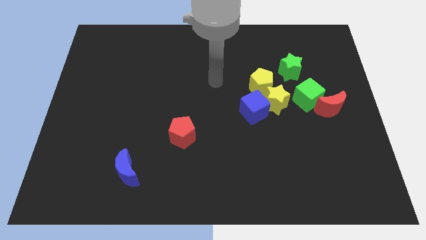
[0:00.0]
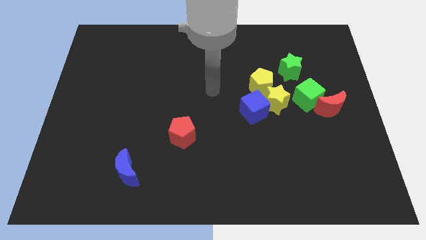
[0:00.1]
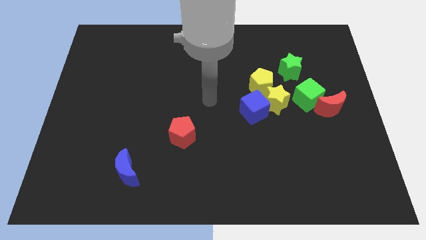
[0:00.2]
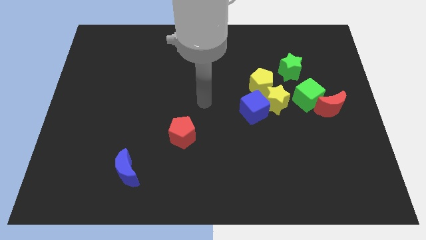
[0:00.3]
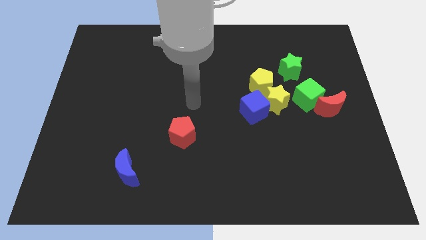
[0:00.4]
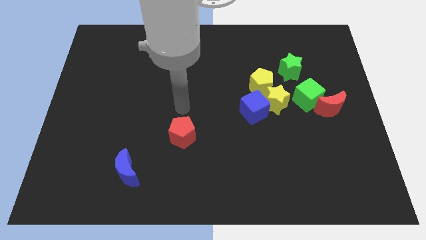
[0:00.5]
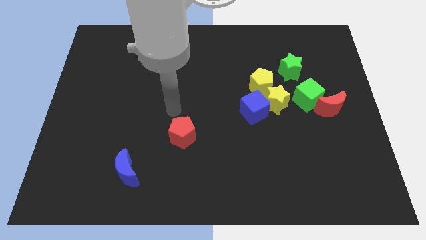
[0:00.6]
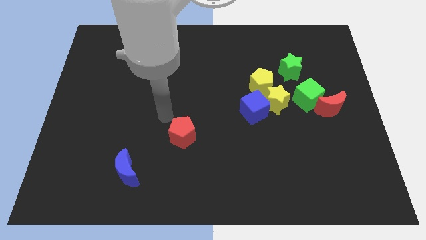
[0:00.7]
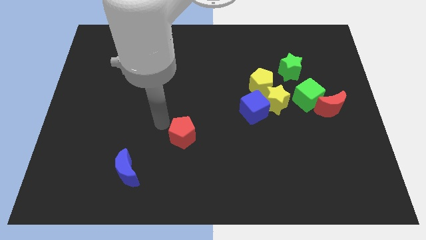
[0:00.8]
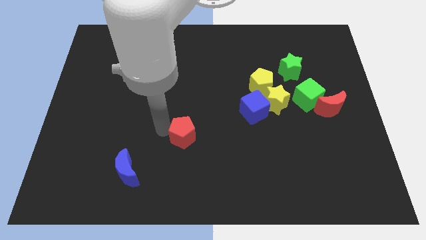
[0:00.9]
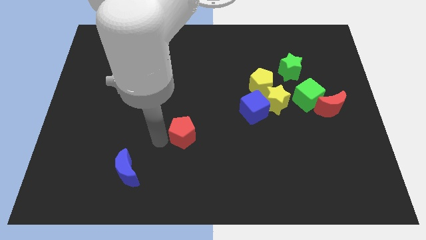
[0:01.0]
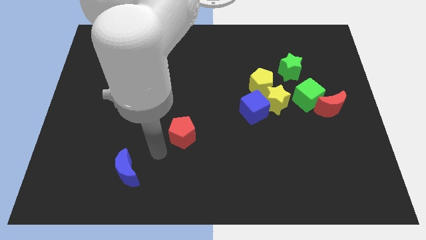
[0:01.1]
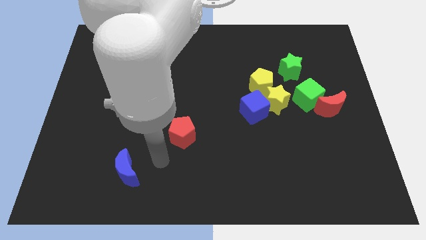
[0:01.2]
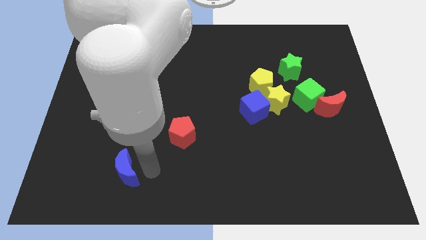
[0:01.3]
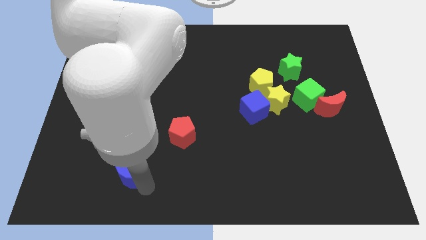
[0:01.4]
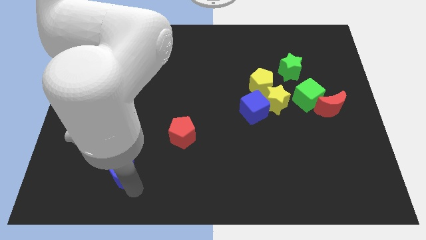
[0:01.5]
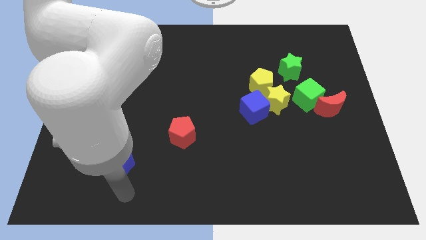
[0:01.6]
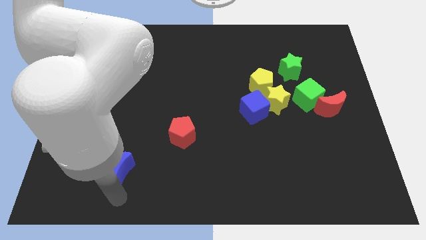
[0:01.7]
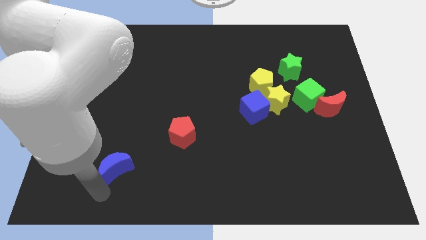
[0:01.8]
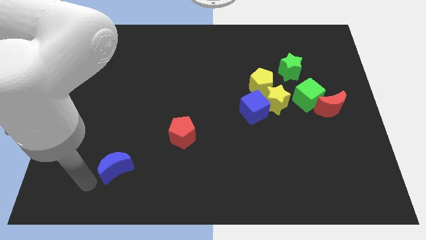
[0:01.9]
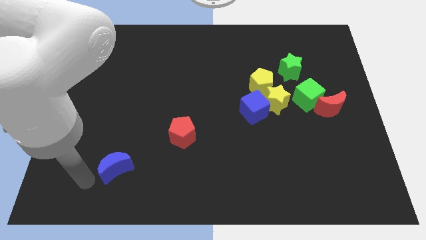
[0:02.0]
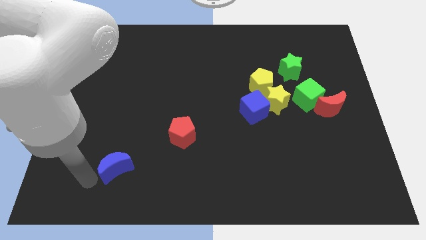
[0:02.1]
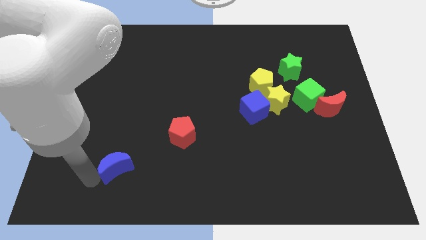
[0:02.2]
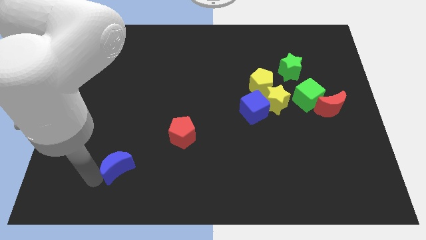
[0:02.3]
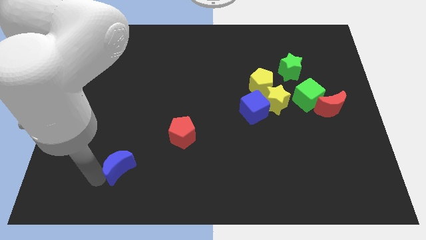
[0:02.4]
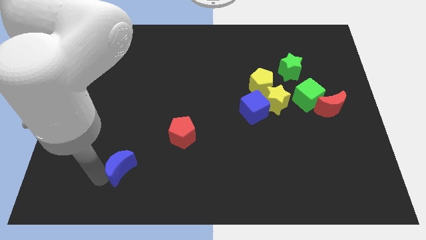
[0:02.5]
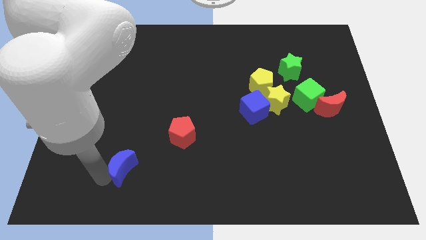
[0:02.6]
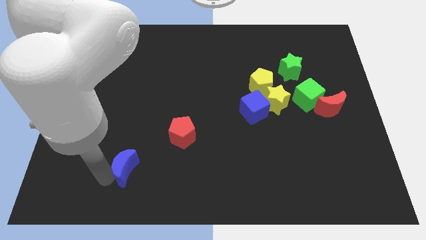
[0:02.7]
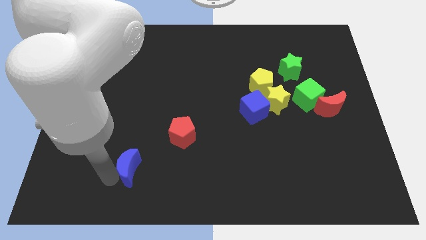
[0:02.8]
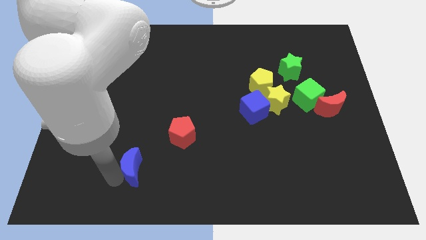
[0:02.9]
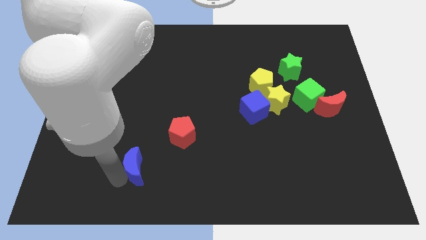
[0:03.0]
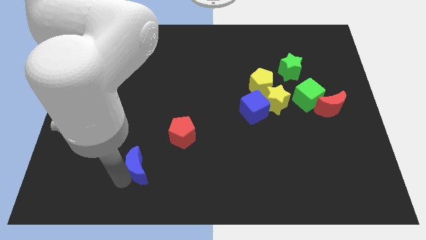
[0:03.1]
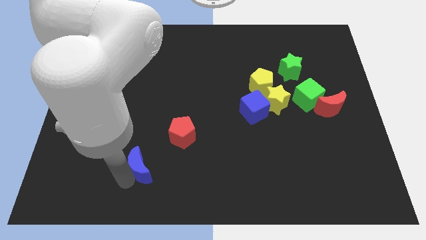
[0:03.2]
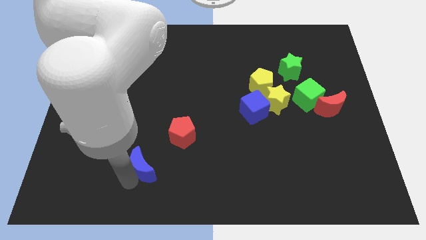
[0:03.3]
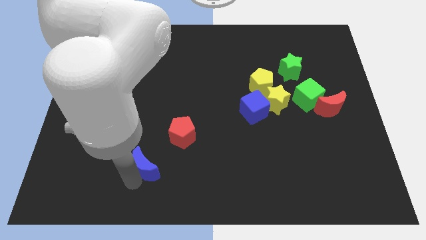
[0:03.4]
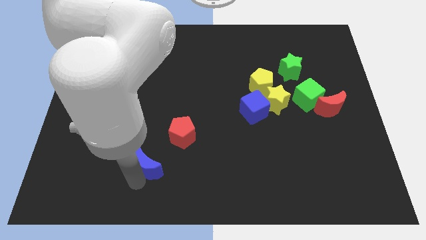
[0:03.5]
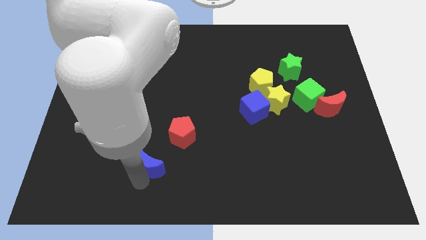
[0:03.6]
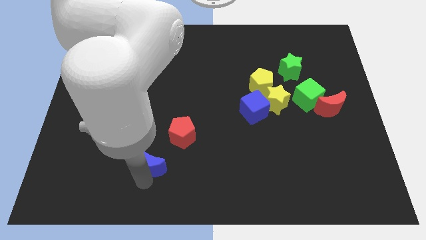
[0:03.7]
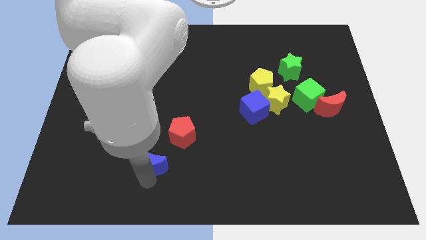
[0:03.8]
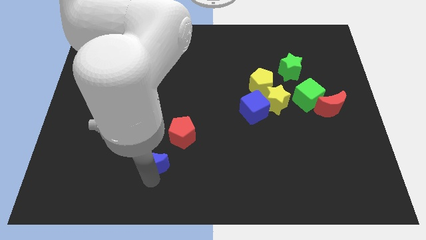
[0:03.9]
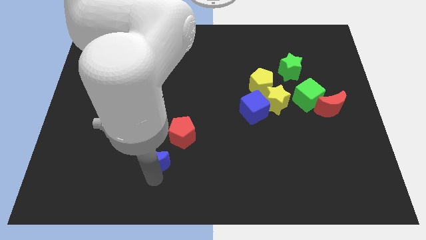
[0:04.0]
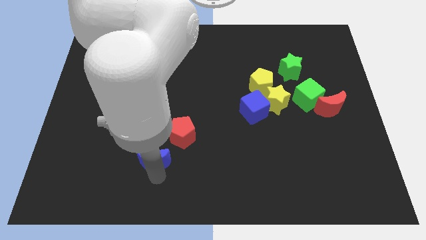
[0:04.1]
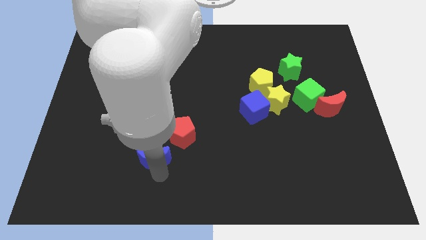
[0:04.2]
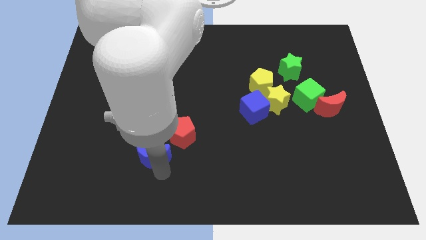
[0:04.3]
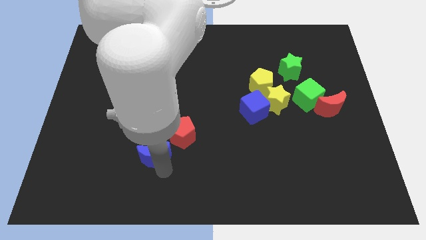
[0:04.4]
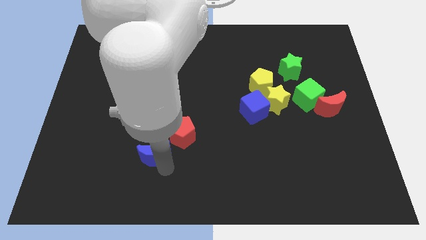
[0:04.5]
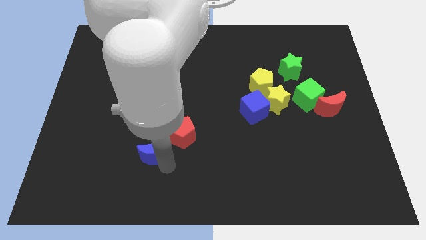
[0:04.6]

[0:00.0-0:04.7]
slightly slide the blue moon upwards and right diagonally

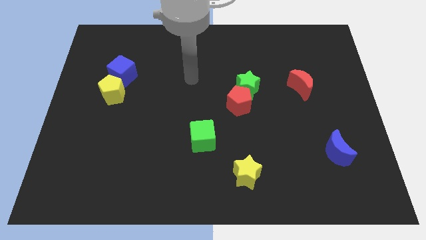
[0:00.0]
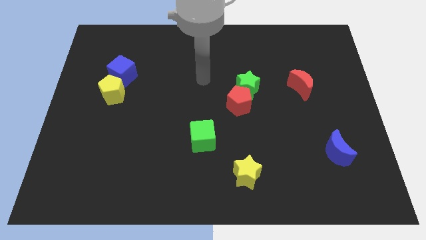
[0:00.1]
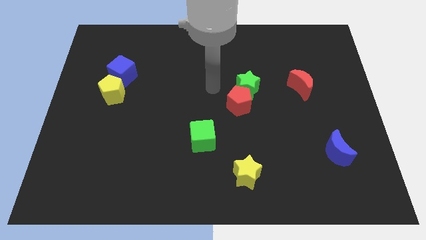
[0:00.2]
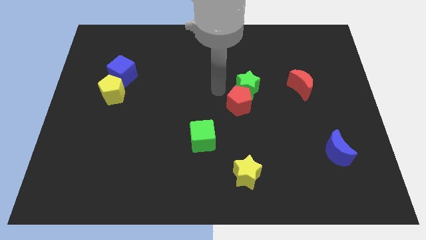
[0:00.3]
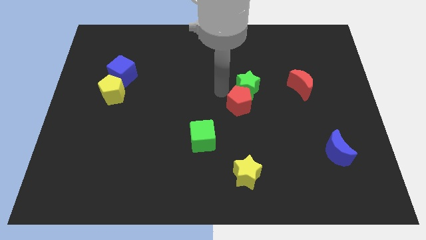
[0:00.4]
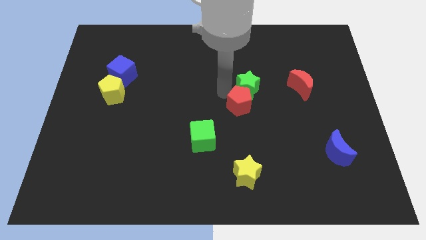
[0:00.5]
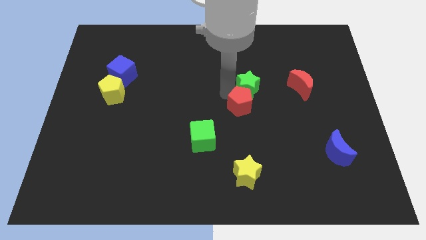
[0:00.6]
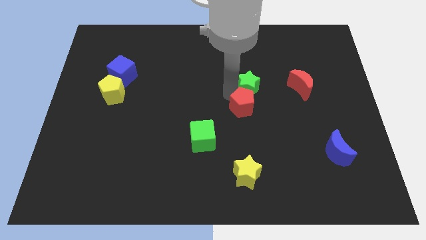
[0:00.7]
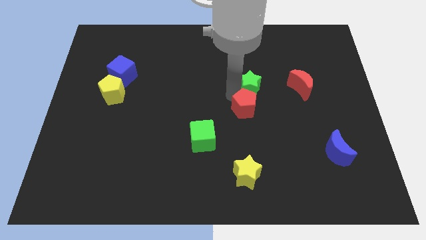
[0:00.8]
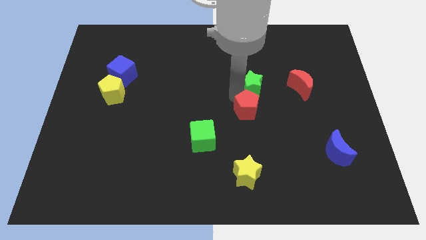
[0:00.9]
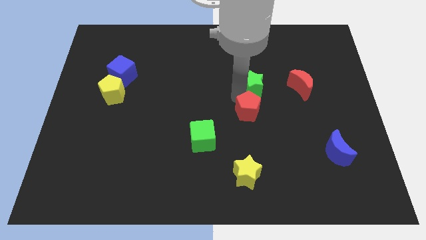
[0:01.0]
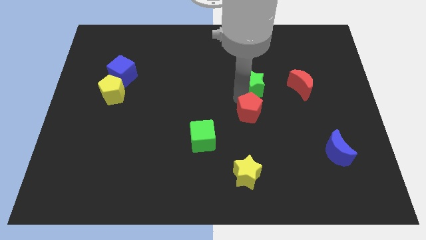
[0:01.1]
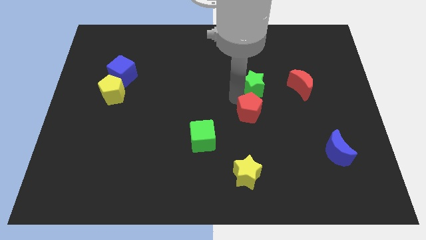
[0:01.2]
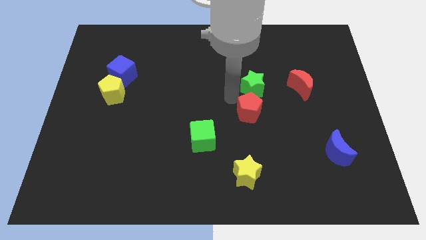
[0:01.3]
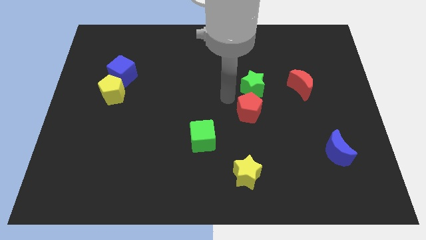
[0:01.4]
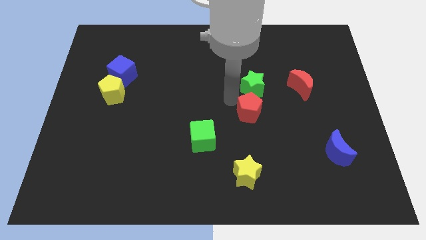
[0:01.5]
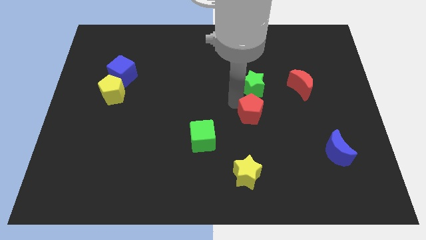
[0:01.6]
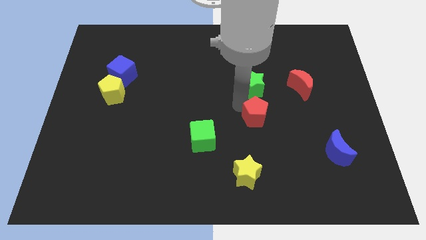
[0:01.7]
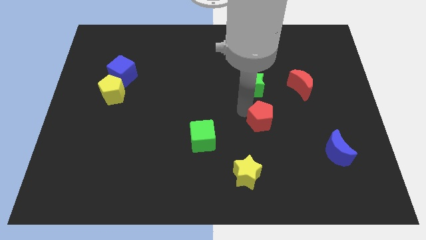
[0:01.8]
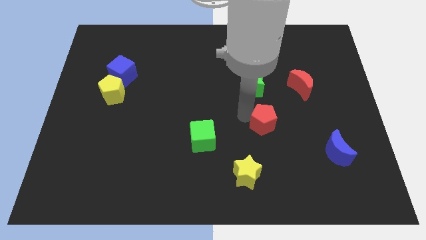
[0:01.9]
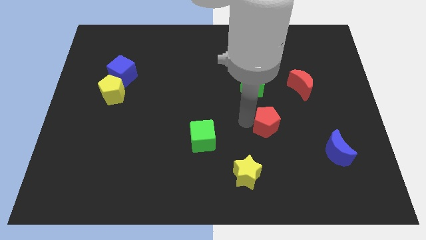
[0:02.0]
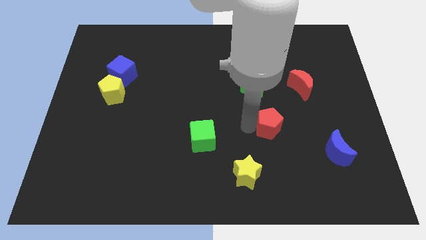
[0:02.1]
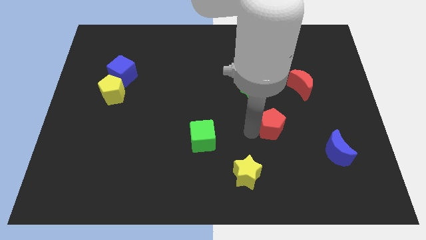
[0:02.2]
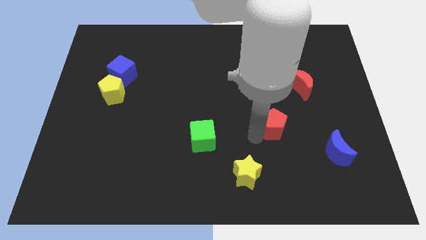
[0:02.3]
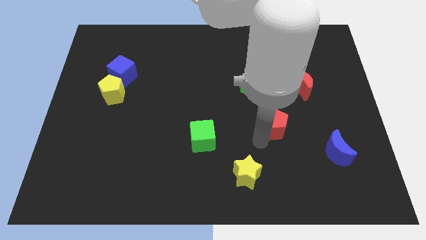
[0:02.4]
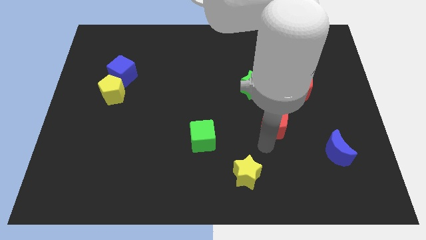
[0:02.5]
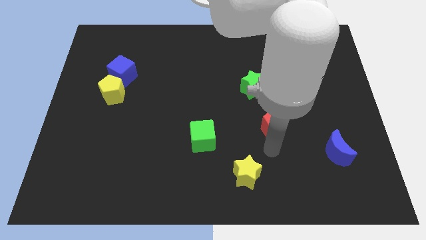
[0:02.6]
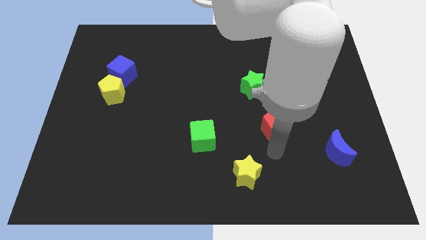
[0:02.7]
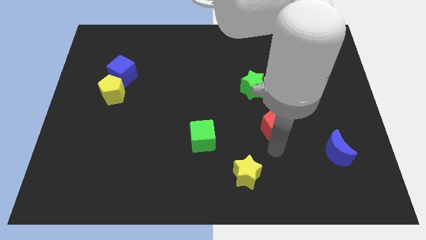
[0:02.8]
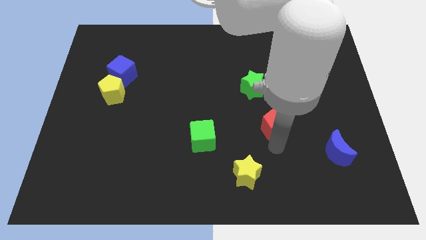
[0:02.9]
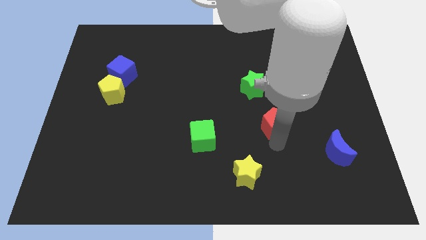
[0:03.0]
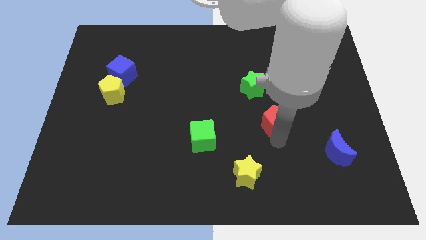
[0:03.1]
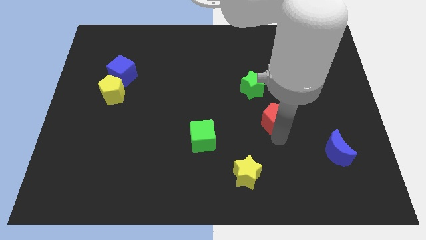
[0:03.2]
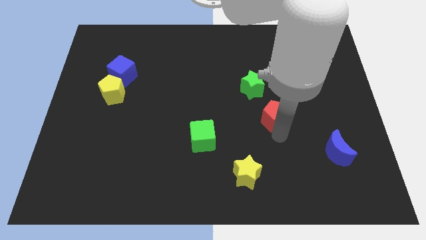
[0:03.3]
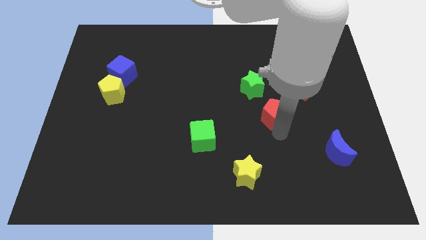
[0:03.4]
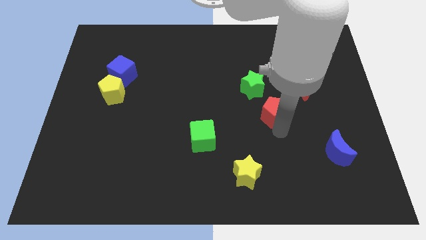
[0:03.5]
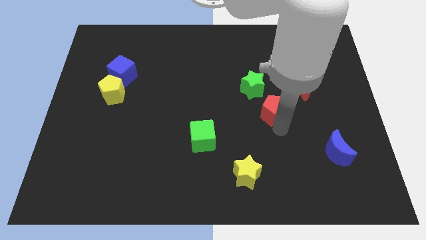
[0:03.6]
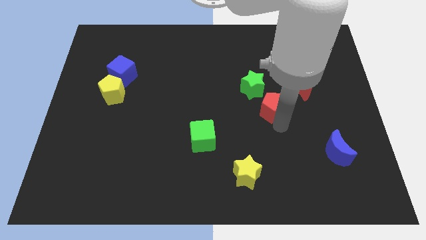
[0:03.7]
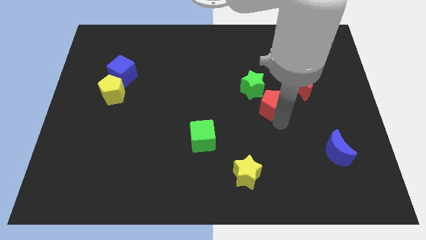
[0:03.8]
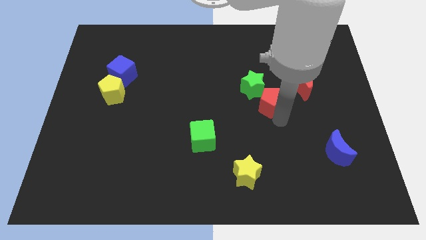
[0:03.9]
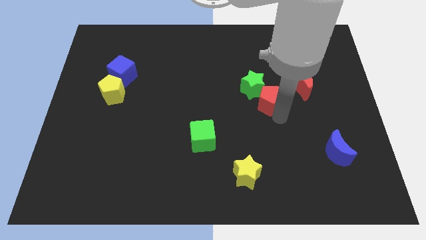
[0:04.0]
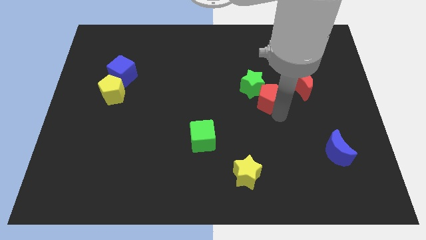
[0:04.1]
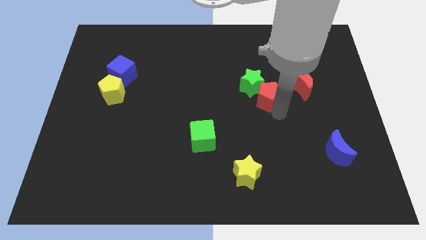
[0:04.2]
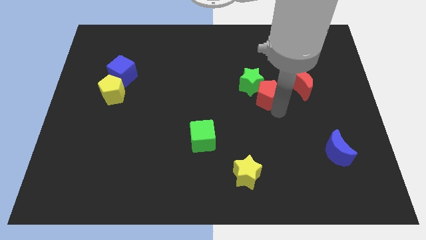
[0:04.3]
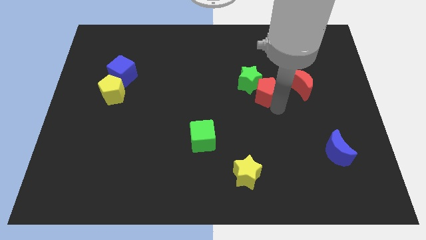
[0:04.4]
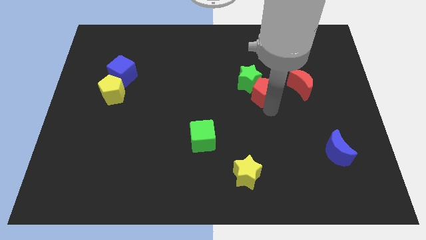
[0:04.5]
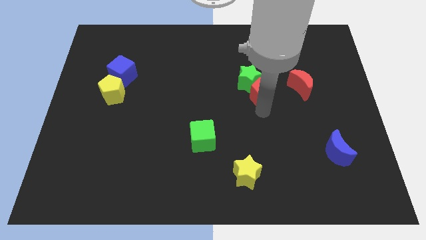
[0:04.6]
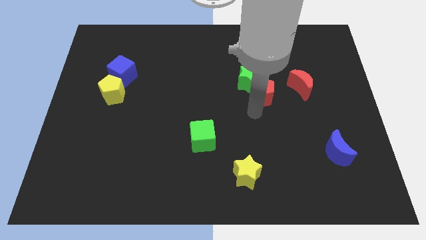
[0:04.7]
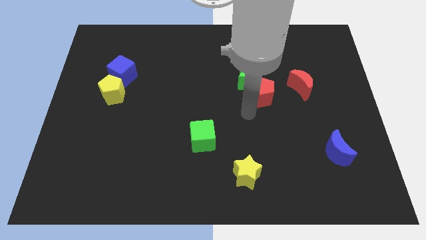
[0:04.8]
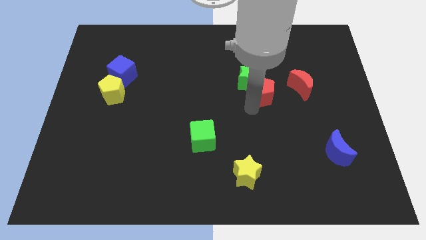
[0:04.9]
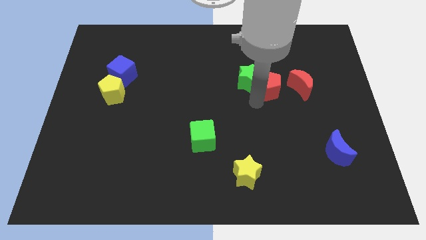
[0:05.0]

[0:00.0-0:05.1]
slightly slide the red pentagon upwards and right
